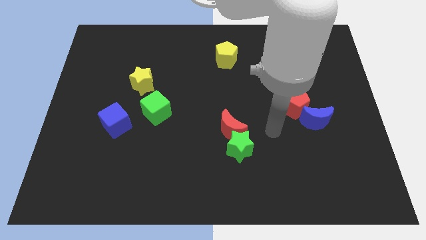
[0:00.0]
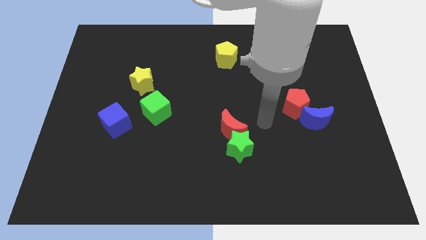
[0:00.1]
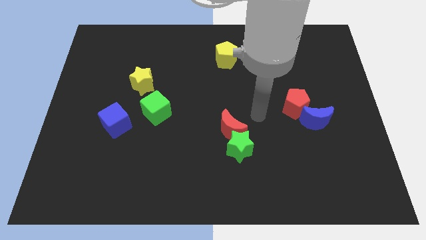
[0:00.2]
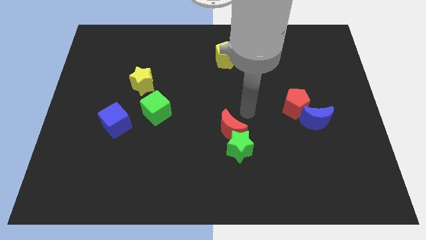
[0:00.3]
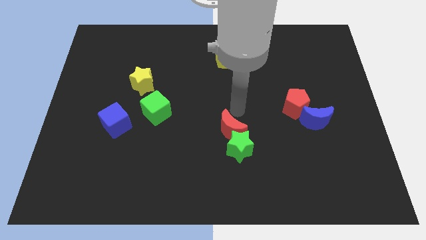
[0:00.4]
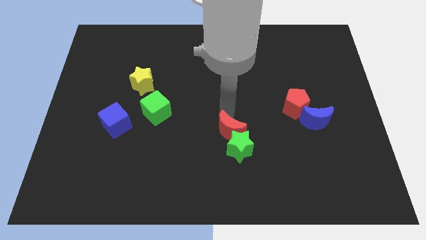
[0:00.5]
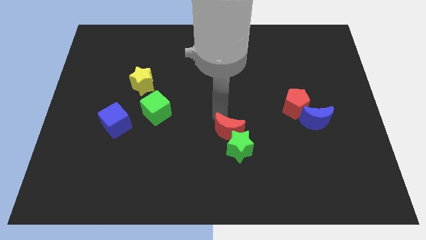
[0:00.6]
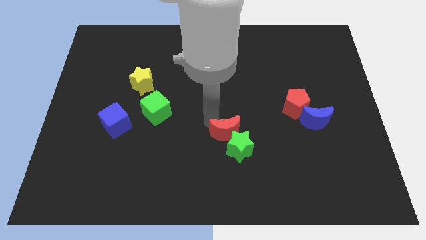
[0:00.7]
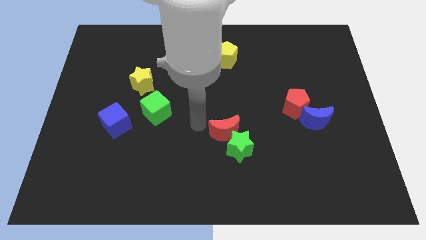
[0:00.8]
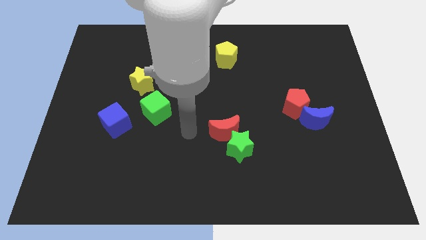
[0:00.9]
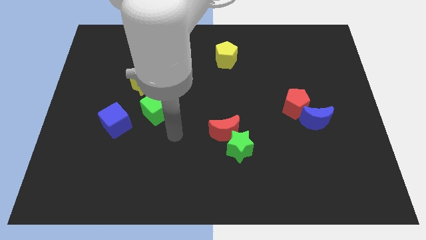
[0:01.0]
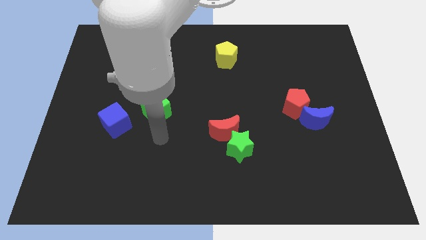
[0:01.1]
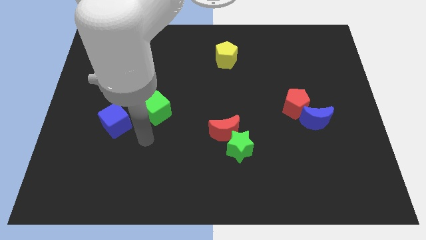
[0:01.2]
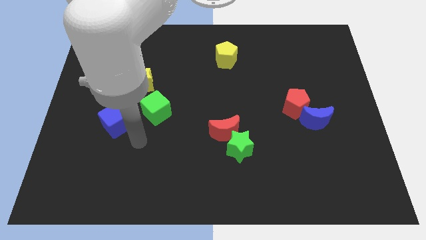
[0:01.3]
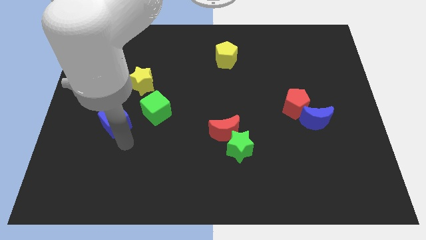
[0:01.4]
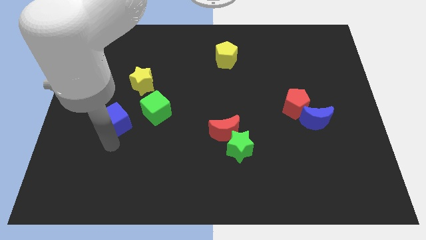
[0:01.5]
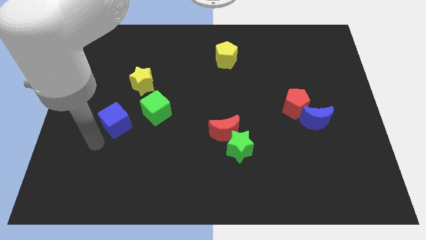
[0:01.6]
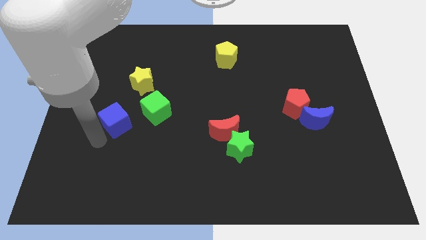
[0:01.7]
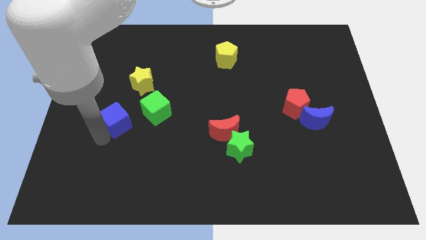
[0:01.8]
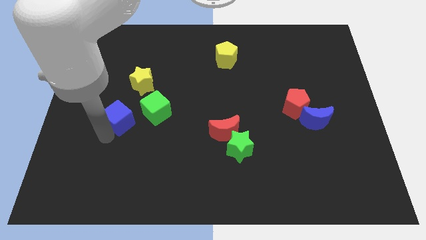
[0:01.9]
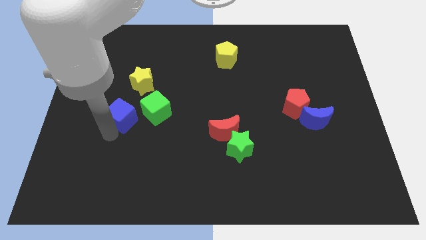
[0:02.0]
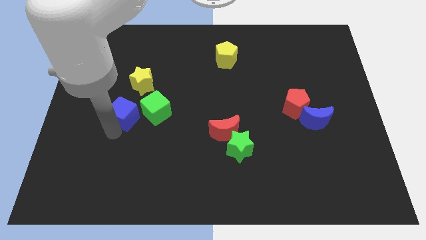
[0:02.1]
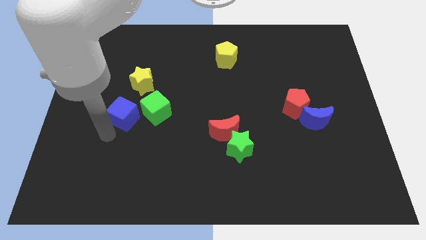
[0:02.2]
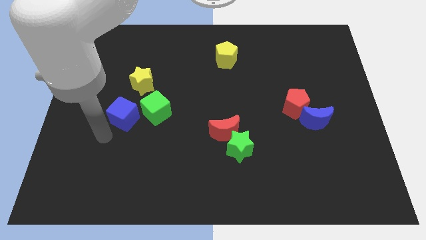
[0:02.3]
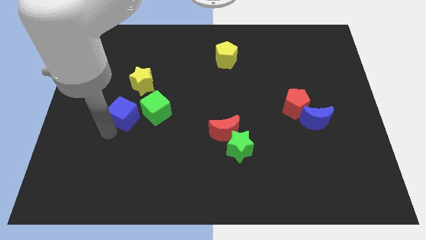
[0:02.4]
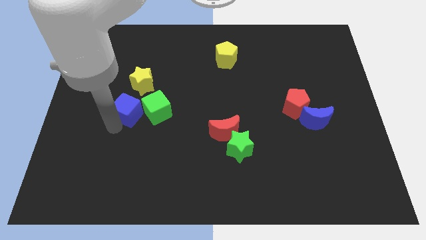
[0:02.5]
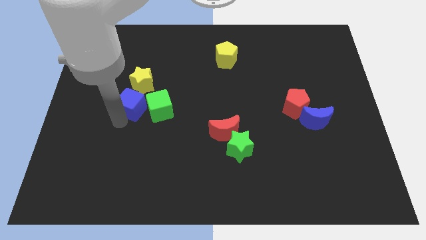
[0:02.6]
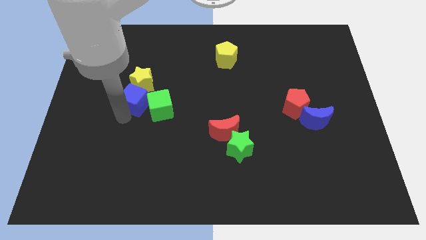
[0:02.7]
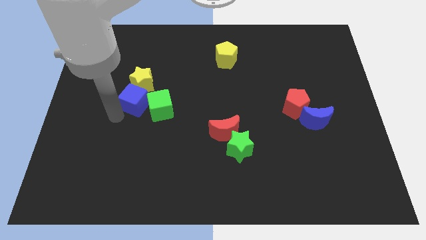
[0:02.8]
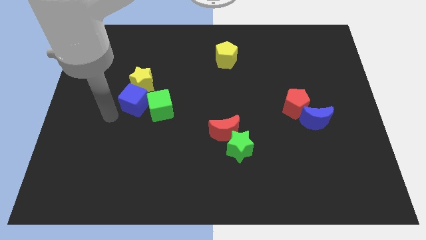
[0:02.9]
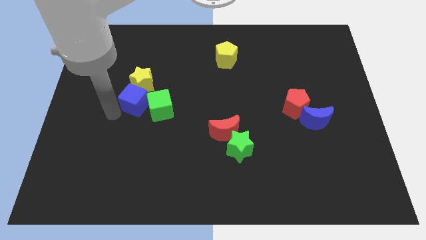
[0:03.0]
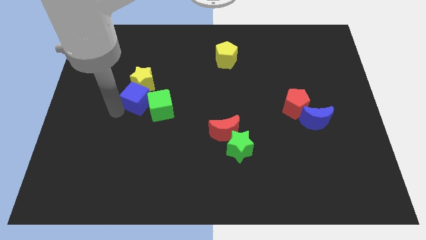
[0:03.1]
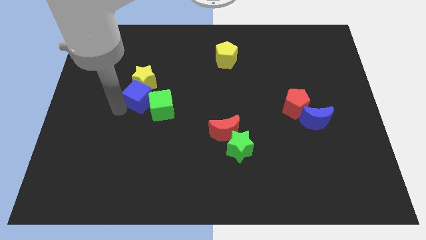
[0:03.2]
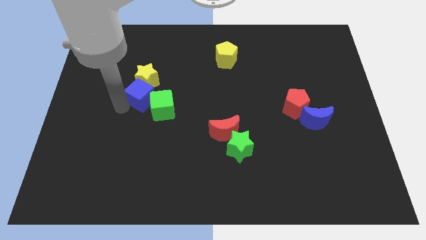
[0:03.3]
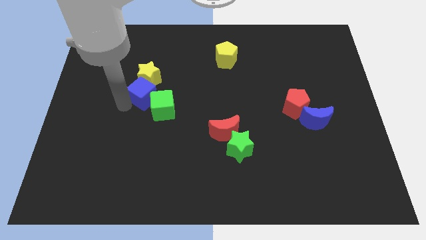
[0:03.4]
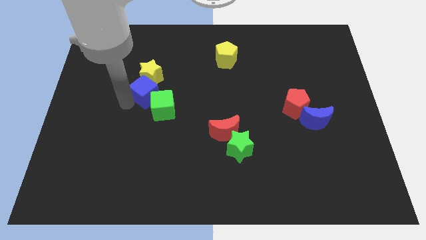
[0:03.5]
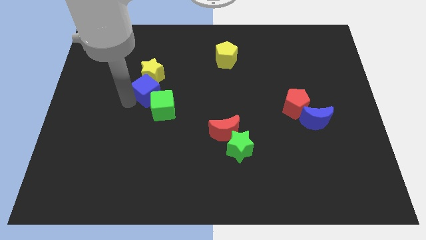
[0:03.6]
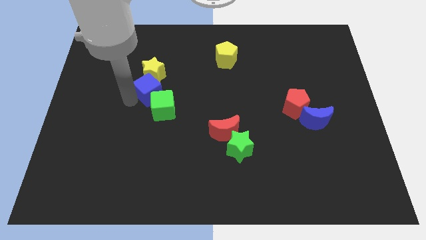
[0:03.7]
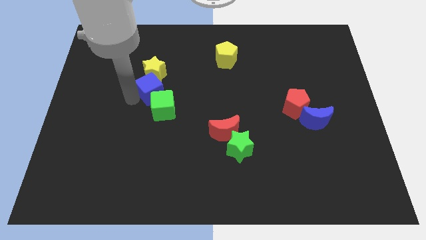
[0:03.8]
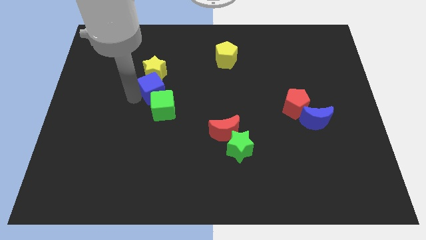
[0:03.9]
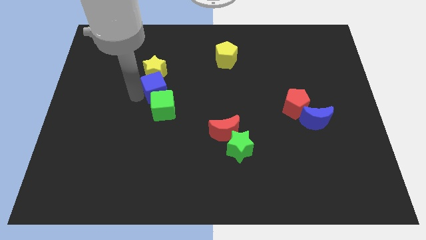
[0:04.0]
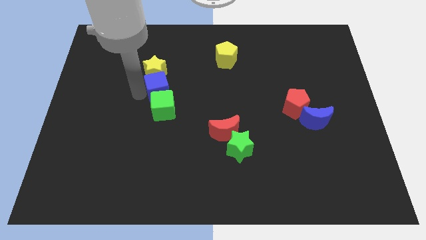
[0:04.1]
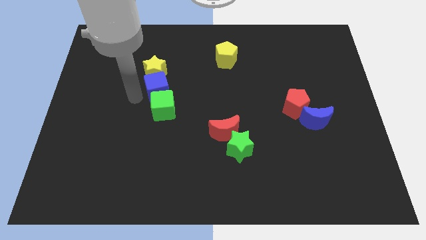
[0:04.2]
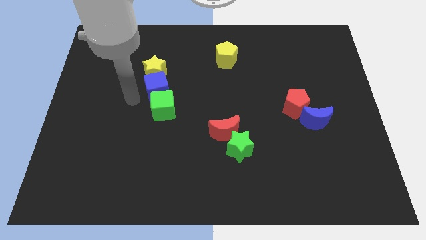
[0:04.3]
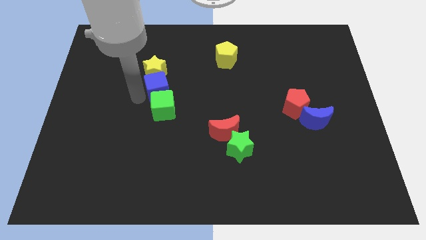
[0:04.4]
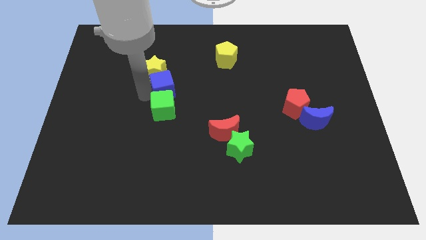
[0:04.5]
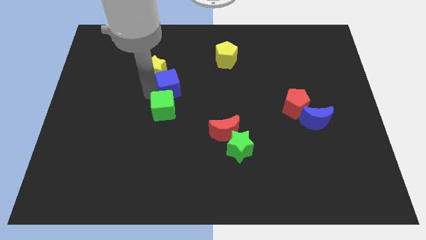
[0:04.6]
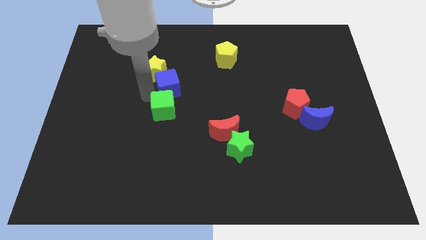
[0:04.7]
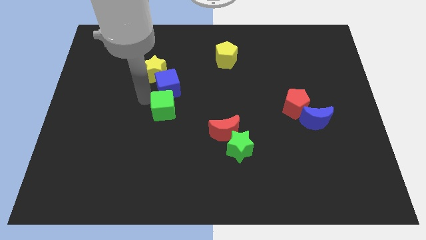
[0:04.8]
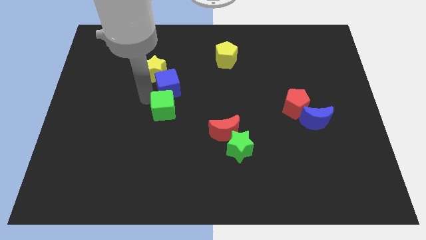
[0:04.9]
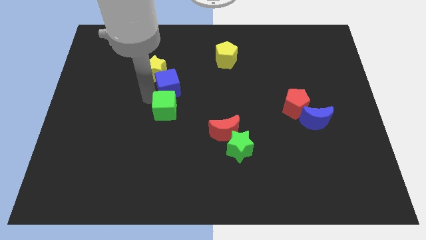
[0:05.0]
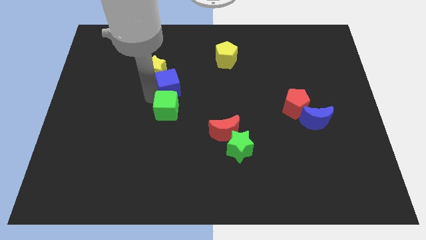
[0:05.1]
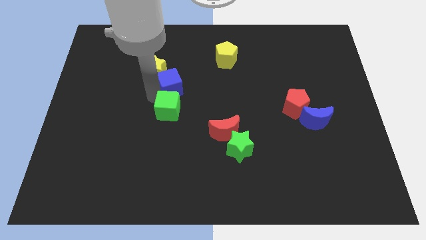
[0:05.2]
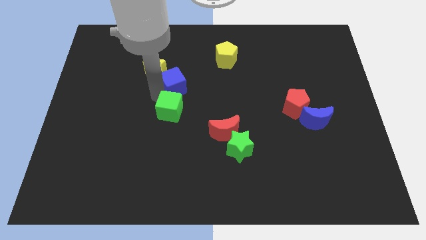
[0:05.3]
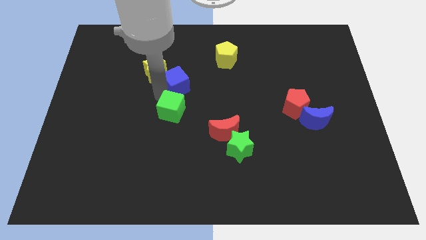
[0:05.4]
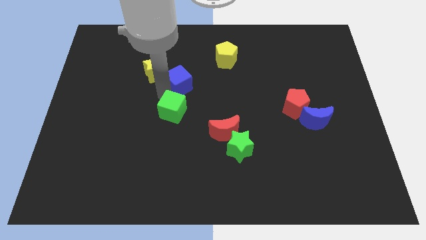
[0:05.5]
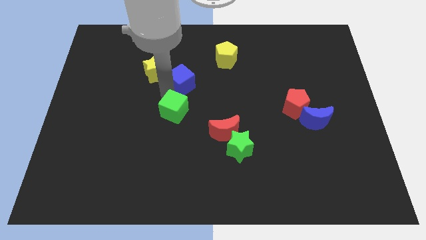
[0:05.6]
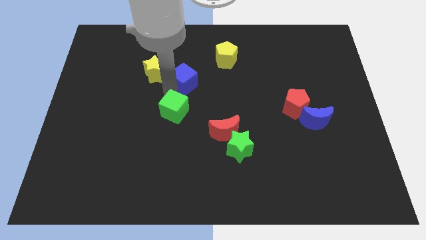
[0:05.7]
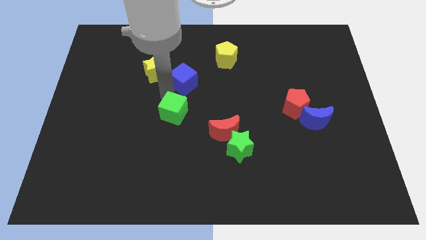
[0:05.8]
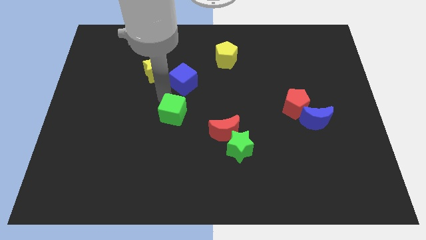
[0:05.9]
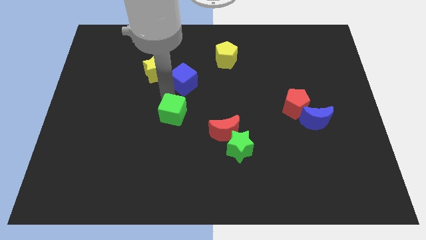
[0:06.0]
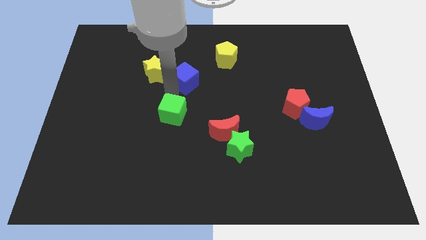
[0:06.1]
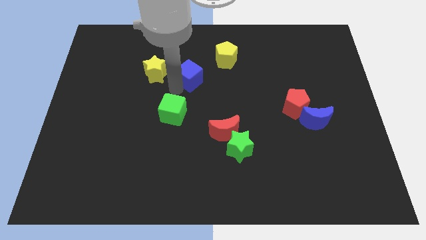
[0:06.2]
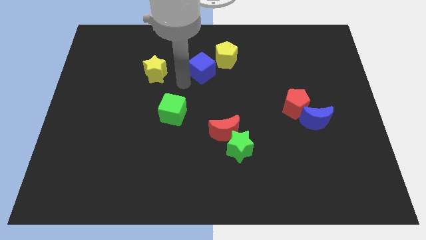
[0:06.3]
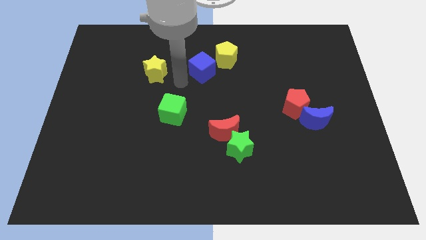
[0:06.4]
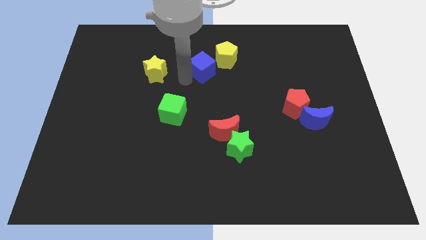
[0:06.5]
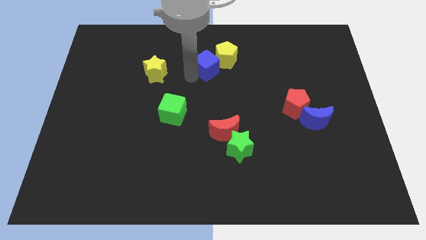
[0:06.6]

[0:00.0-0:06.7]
slide the blue cube towards the yellow pentagon
